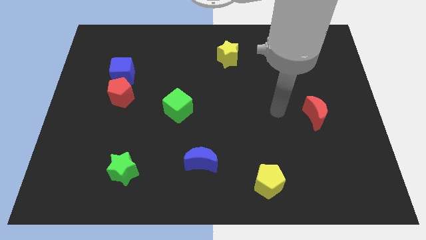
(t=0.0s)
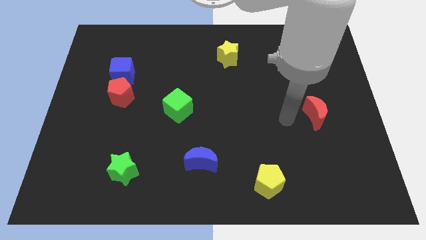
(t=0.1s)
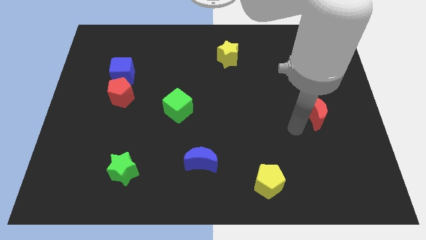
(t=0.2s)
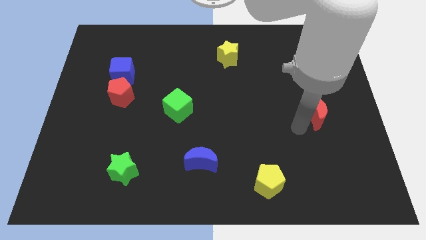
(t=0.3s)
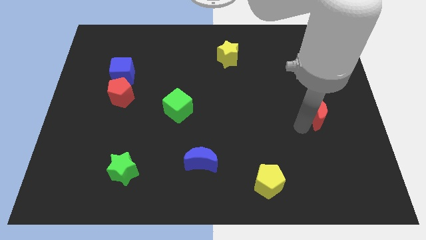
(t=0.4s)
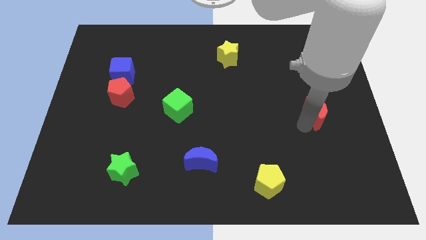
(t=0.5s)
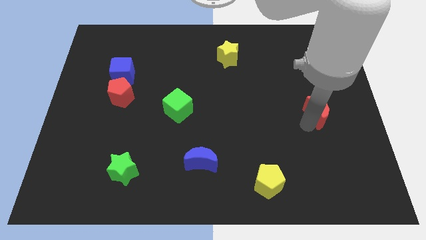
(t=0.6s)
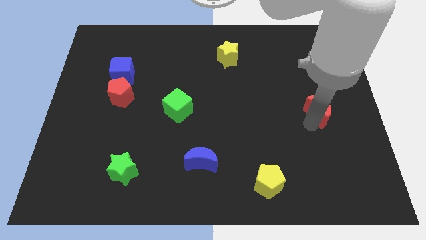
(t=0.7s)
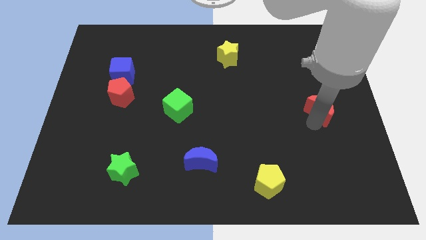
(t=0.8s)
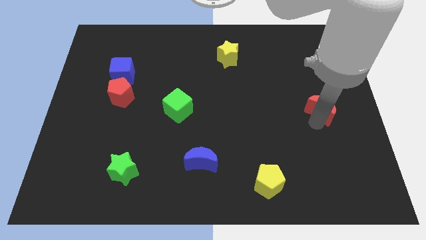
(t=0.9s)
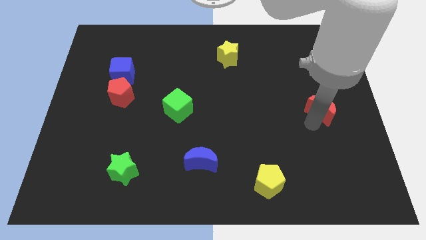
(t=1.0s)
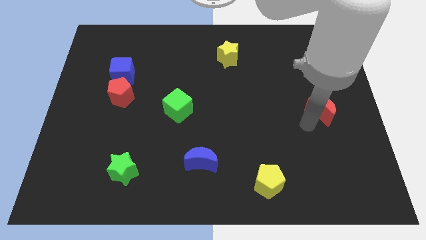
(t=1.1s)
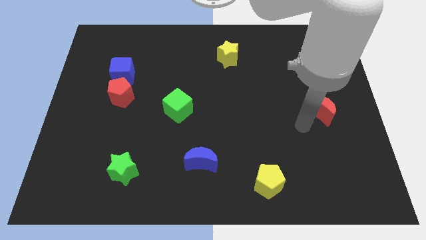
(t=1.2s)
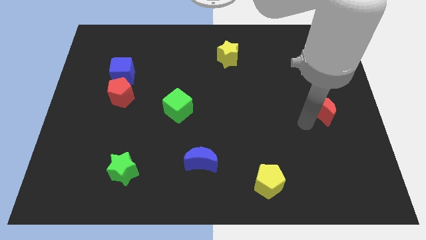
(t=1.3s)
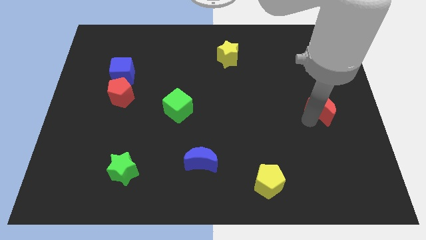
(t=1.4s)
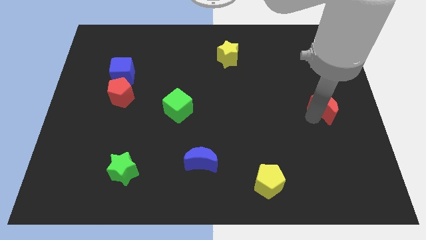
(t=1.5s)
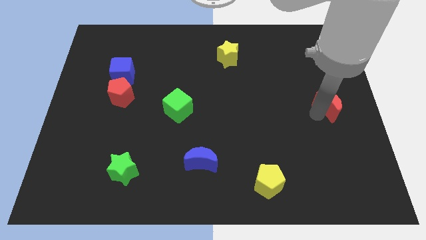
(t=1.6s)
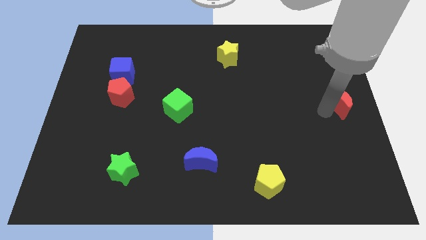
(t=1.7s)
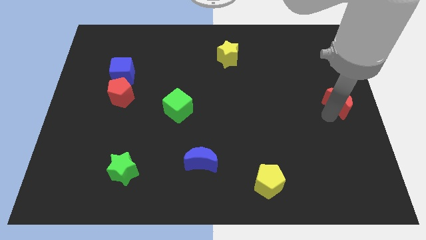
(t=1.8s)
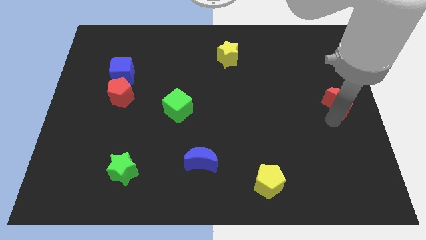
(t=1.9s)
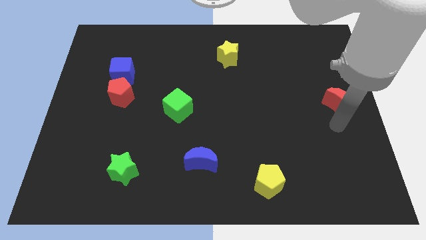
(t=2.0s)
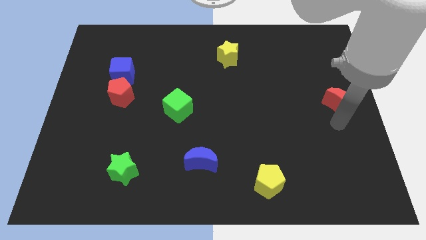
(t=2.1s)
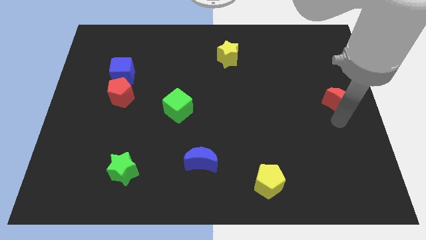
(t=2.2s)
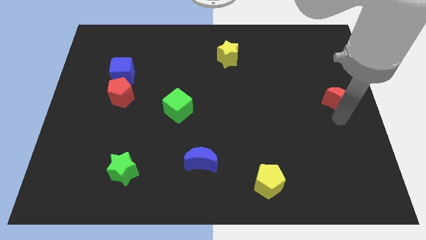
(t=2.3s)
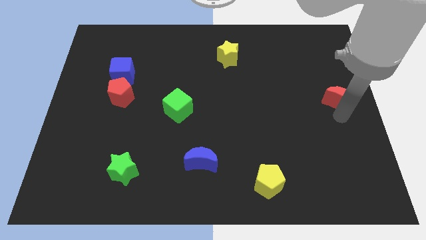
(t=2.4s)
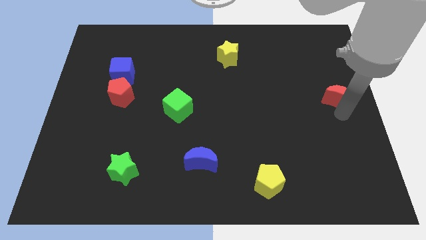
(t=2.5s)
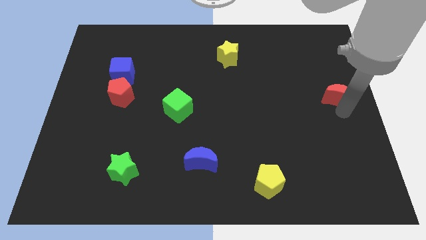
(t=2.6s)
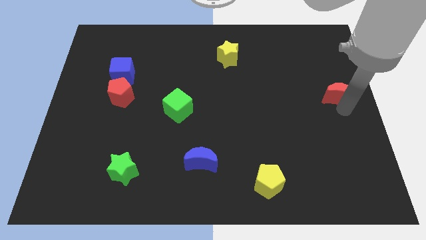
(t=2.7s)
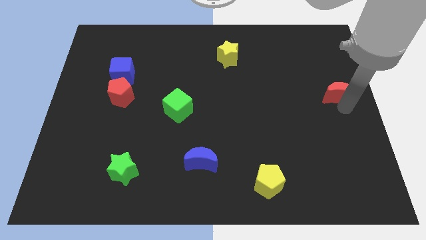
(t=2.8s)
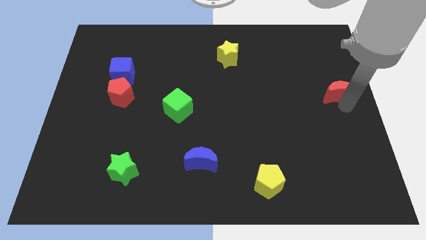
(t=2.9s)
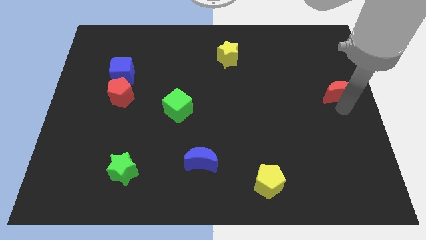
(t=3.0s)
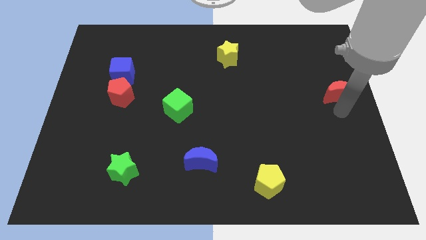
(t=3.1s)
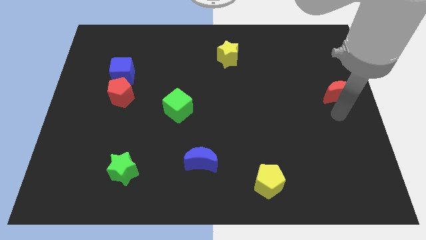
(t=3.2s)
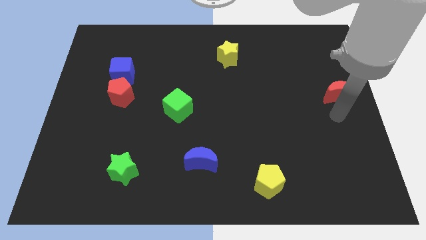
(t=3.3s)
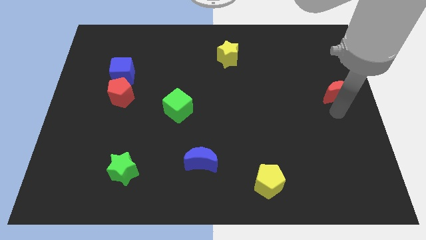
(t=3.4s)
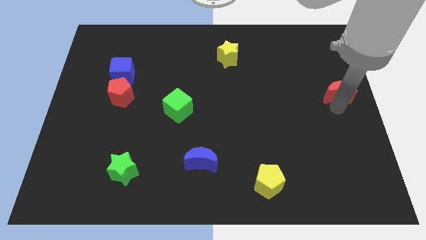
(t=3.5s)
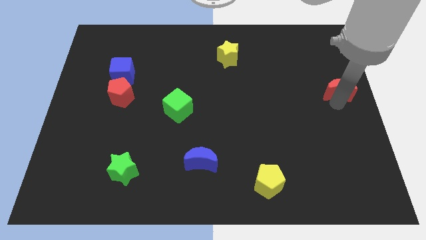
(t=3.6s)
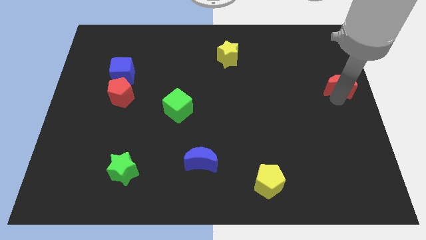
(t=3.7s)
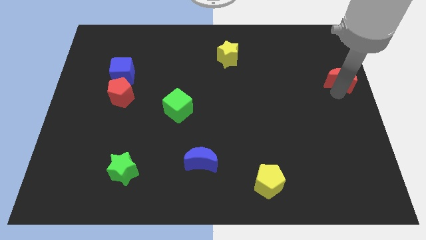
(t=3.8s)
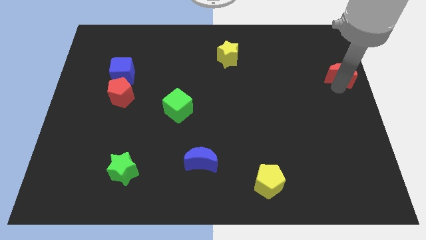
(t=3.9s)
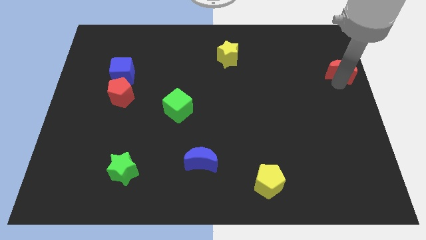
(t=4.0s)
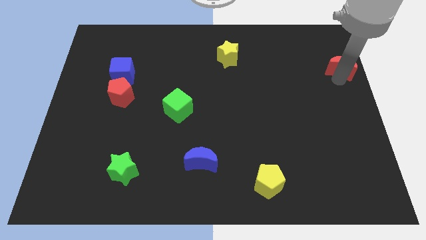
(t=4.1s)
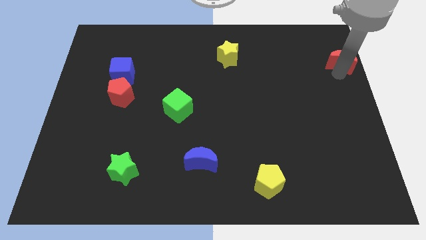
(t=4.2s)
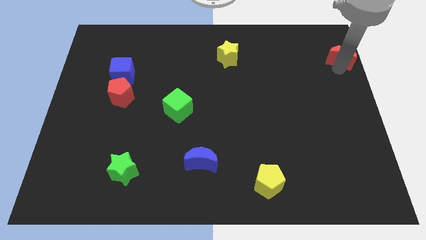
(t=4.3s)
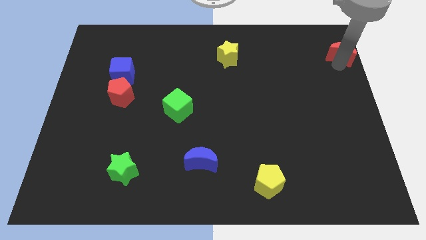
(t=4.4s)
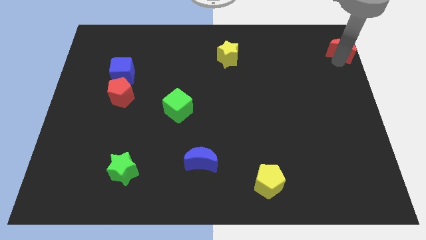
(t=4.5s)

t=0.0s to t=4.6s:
put the red moon to the top right of the board

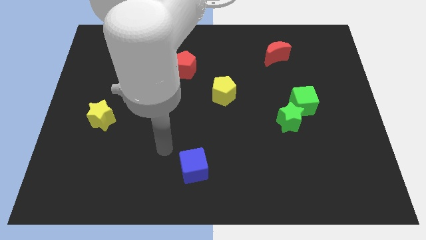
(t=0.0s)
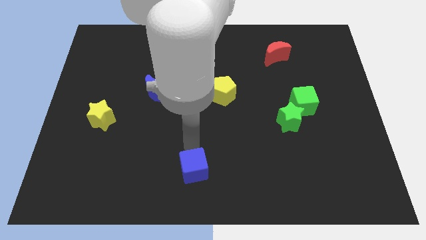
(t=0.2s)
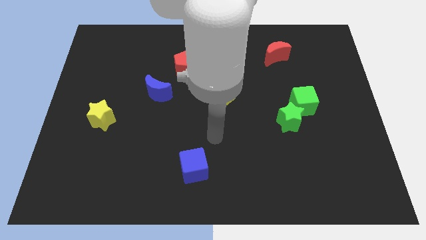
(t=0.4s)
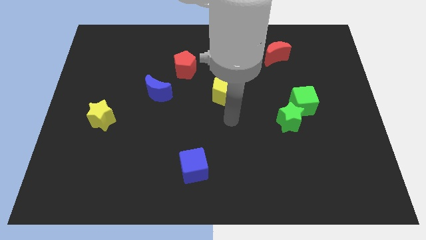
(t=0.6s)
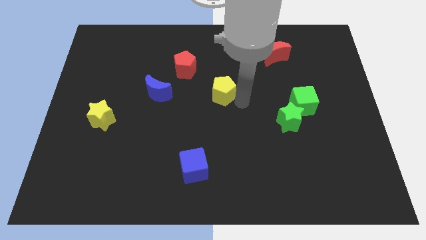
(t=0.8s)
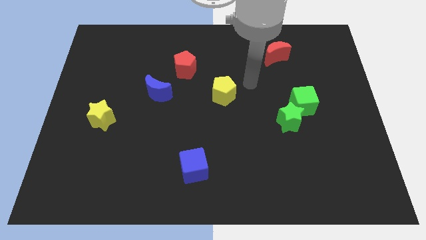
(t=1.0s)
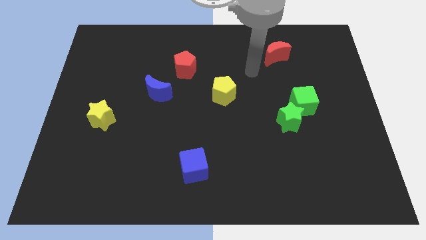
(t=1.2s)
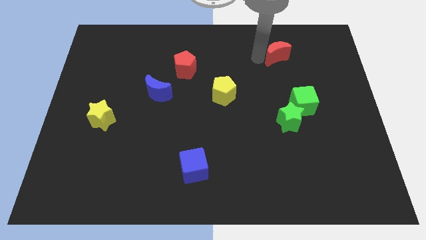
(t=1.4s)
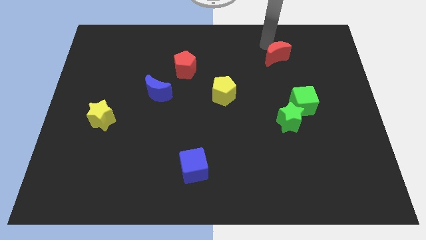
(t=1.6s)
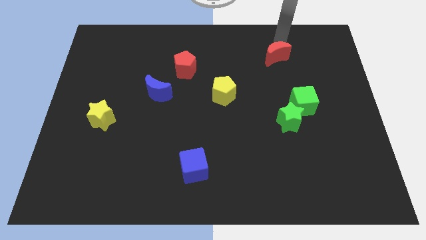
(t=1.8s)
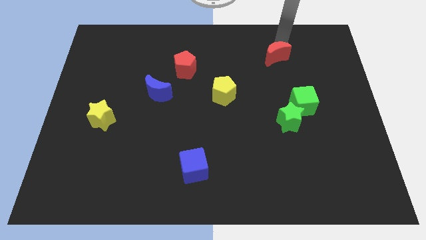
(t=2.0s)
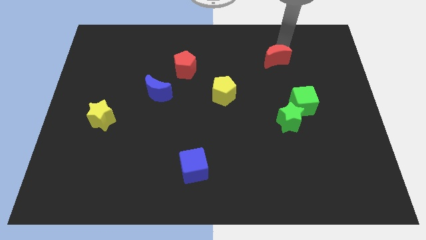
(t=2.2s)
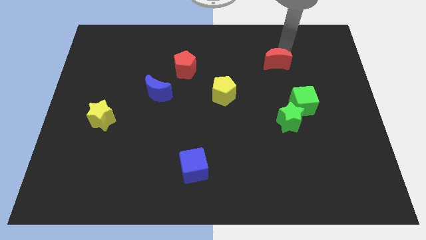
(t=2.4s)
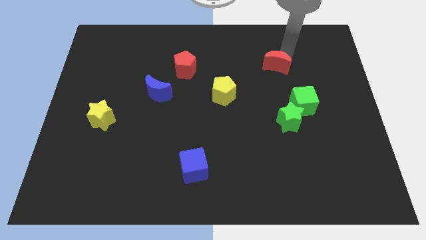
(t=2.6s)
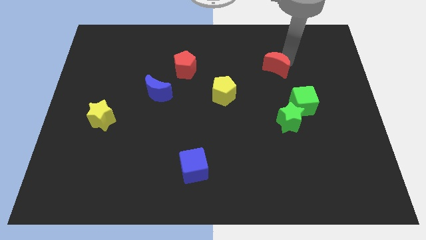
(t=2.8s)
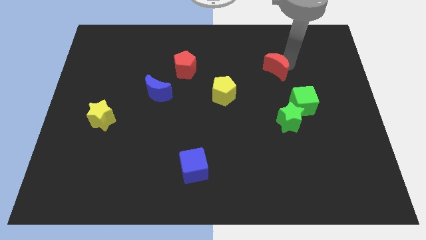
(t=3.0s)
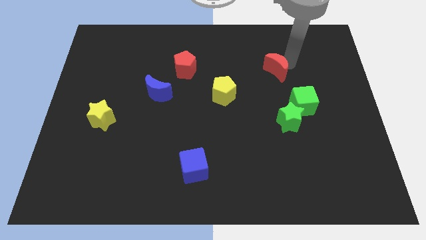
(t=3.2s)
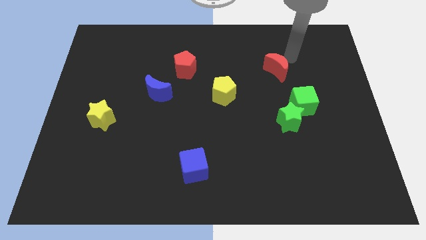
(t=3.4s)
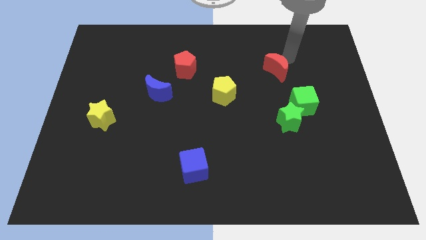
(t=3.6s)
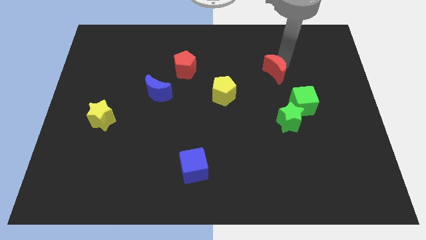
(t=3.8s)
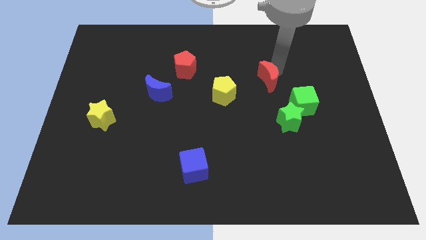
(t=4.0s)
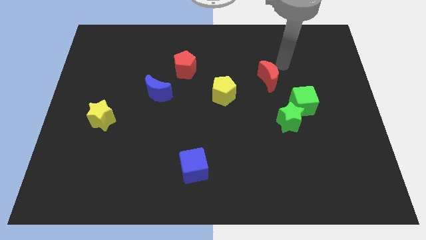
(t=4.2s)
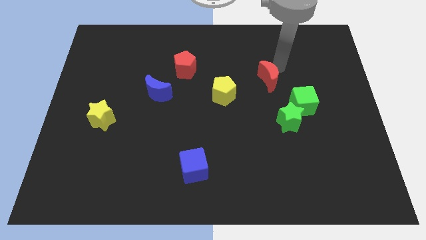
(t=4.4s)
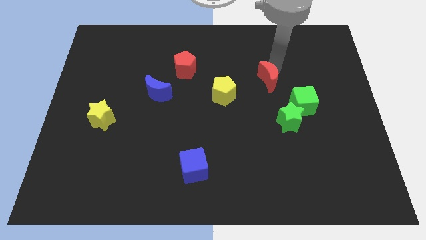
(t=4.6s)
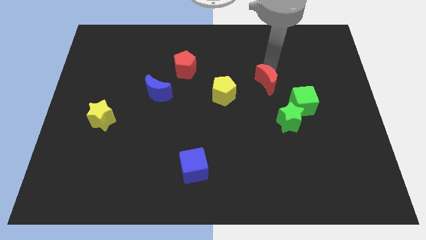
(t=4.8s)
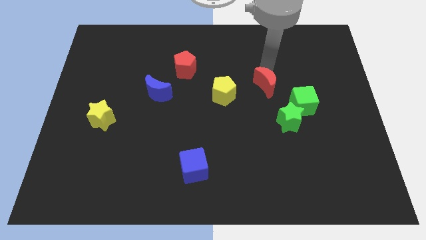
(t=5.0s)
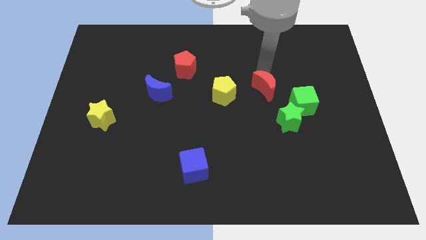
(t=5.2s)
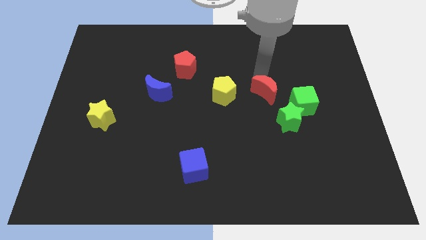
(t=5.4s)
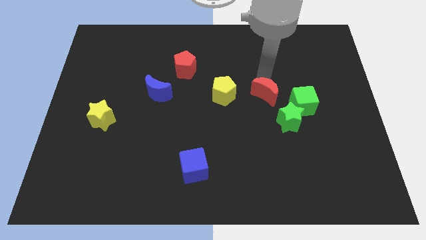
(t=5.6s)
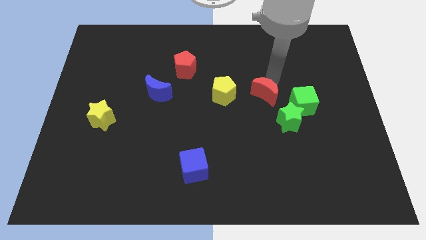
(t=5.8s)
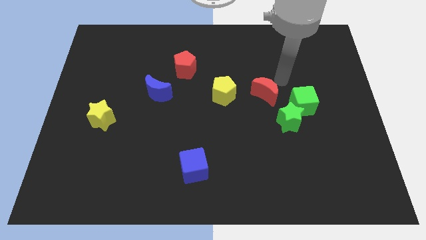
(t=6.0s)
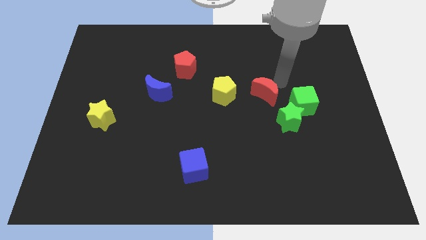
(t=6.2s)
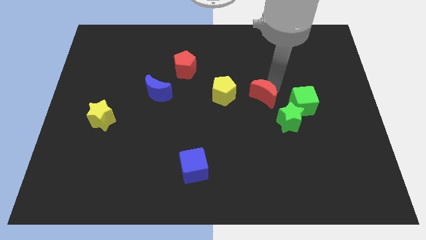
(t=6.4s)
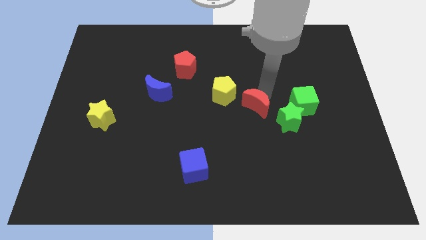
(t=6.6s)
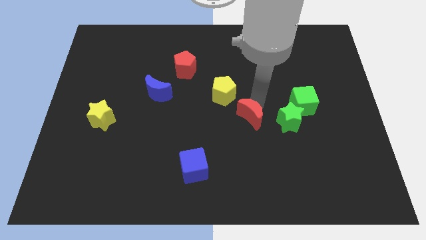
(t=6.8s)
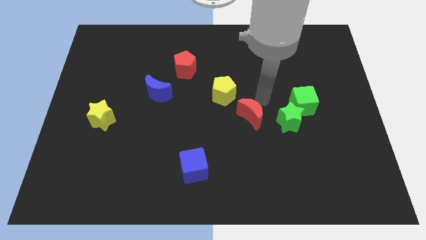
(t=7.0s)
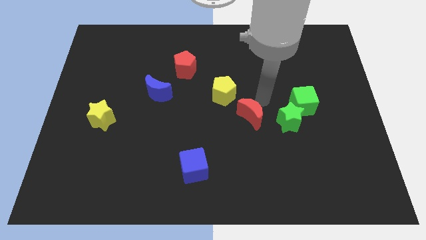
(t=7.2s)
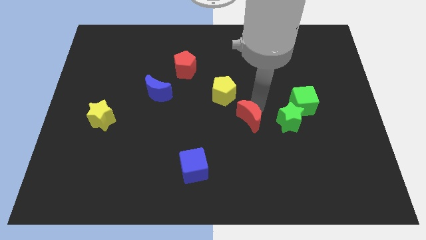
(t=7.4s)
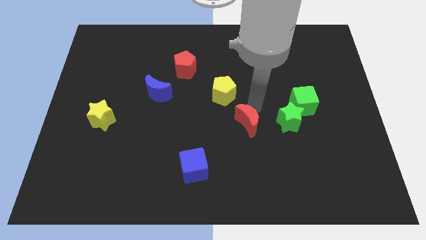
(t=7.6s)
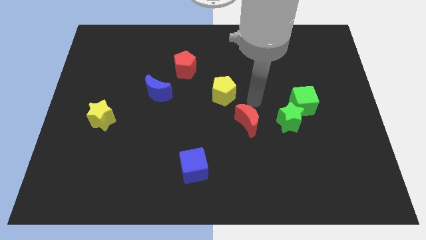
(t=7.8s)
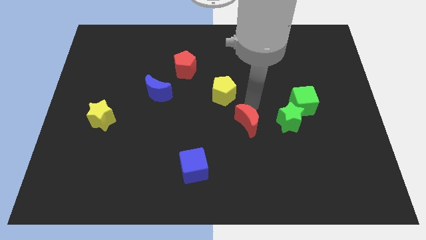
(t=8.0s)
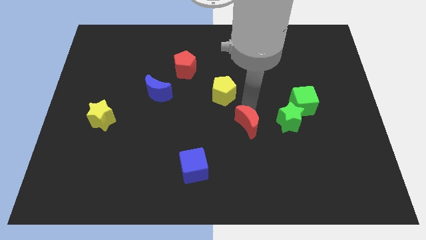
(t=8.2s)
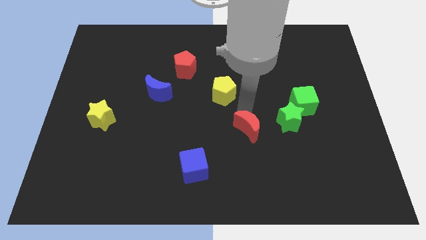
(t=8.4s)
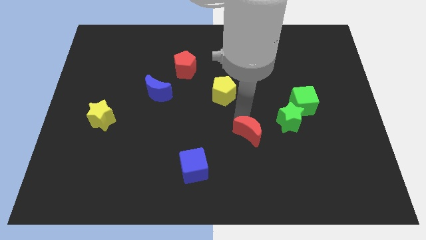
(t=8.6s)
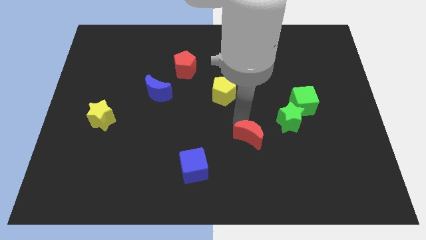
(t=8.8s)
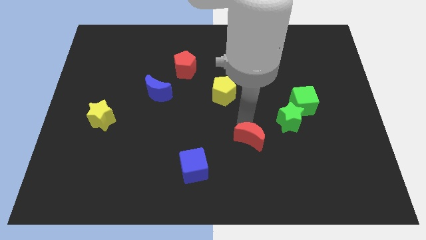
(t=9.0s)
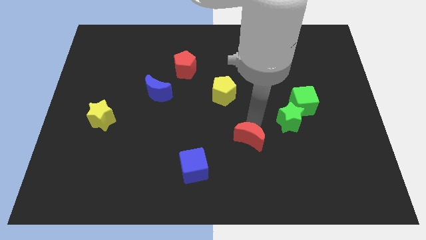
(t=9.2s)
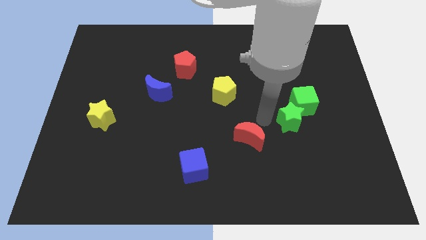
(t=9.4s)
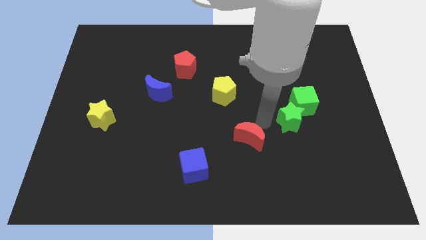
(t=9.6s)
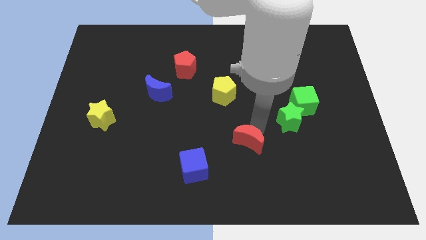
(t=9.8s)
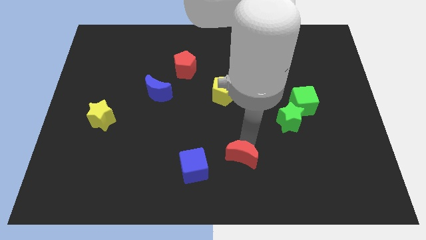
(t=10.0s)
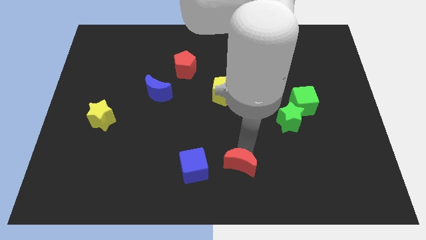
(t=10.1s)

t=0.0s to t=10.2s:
push the red moon to the bottom
